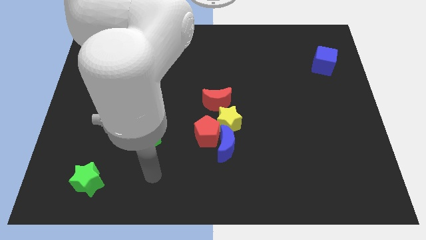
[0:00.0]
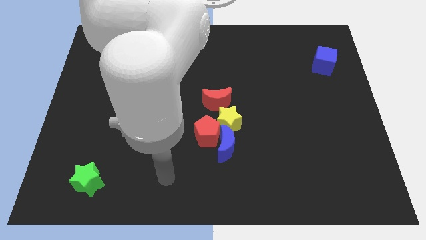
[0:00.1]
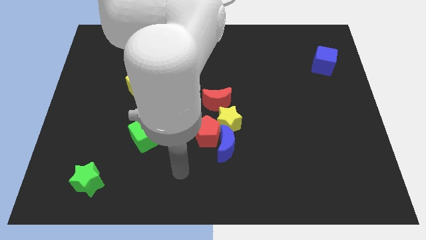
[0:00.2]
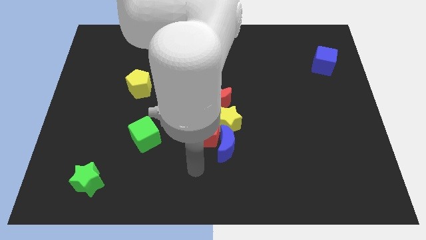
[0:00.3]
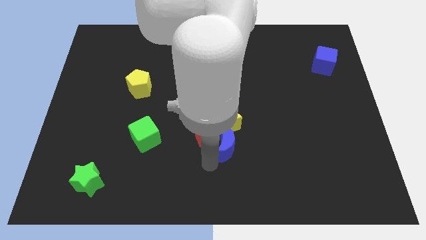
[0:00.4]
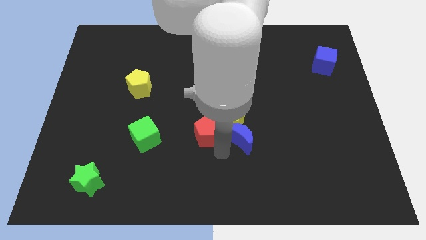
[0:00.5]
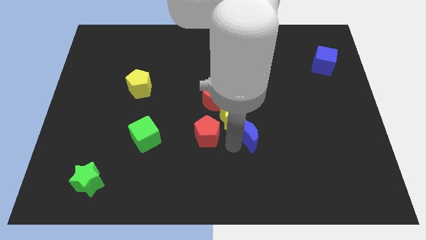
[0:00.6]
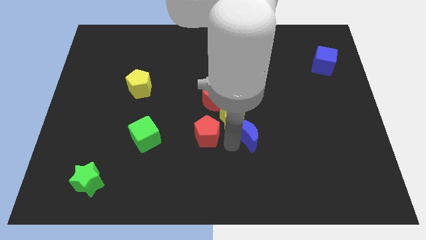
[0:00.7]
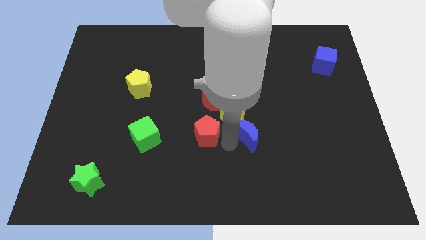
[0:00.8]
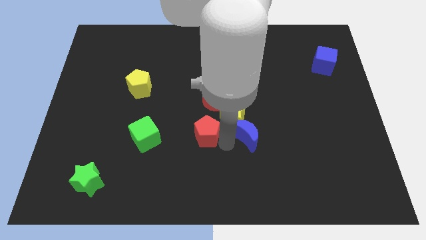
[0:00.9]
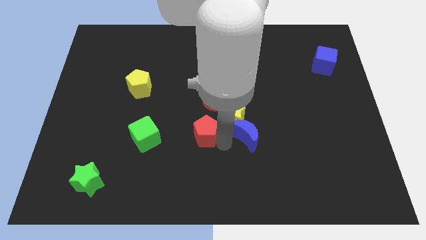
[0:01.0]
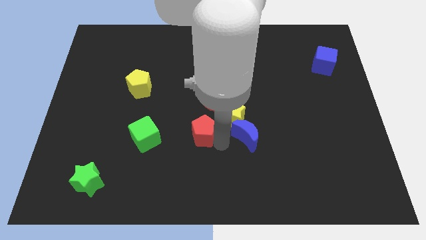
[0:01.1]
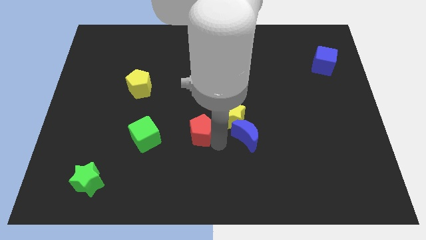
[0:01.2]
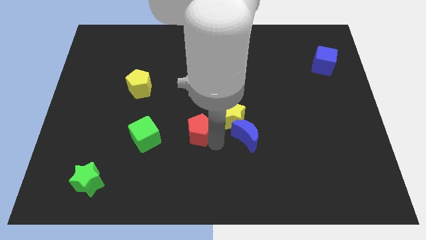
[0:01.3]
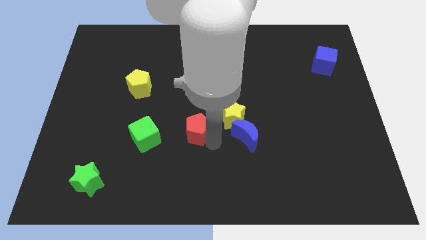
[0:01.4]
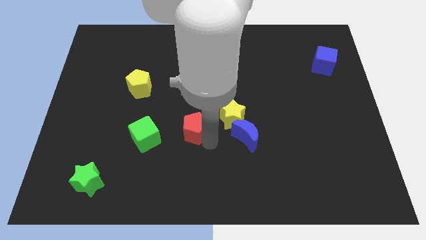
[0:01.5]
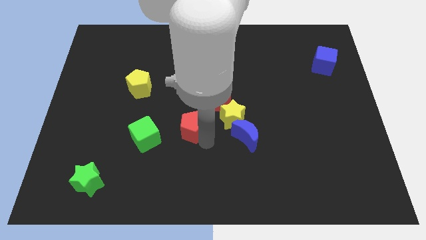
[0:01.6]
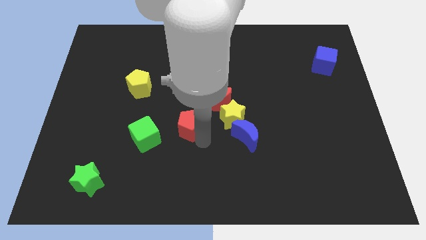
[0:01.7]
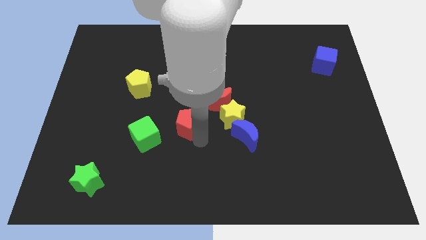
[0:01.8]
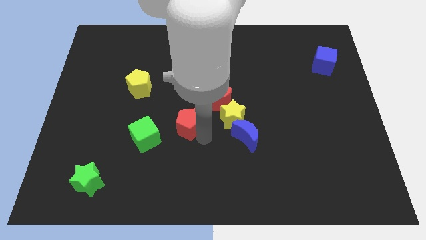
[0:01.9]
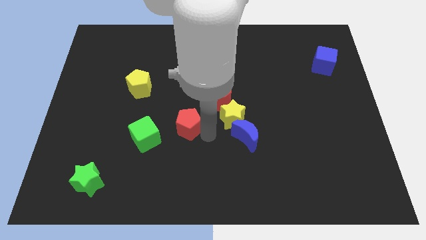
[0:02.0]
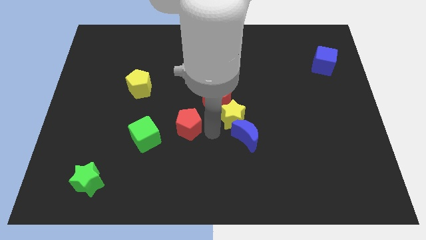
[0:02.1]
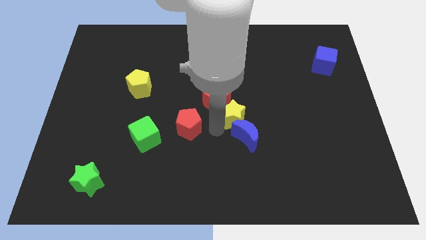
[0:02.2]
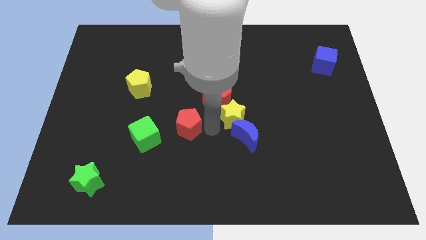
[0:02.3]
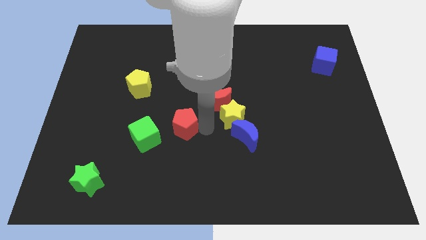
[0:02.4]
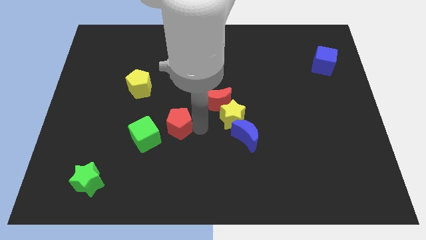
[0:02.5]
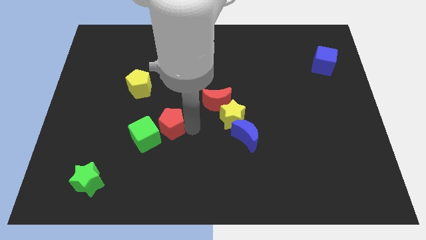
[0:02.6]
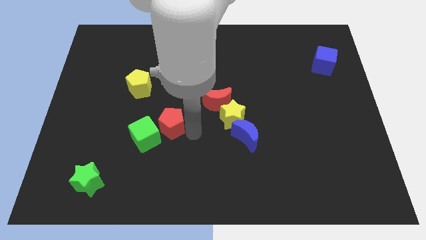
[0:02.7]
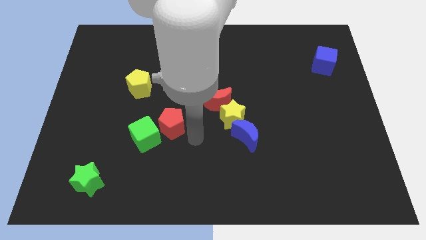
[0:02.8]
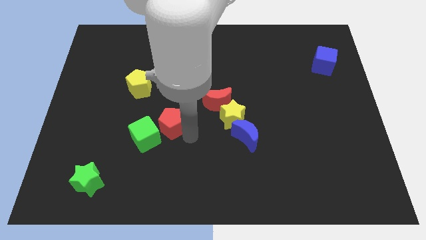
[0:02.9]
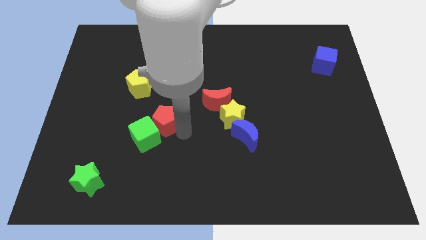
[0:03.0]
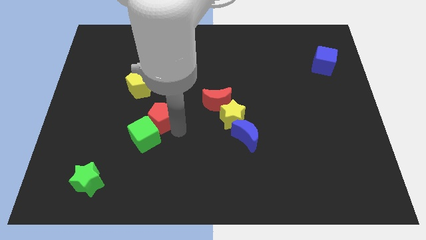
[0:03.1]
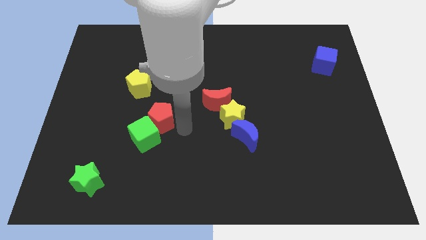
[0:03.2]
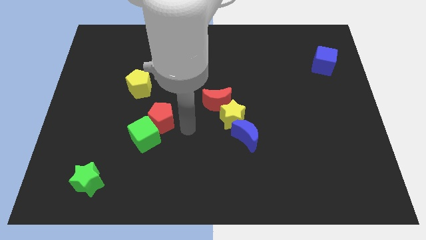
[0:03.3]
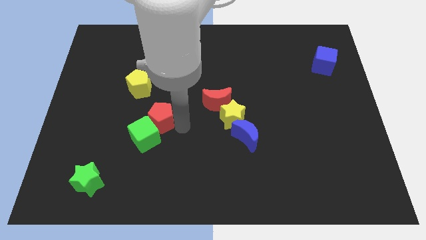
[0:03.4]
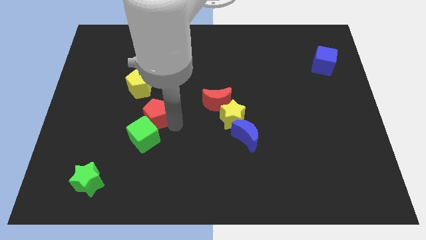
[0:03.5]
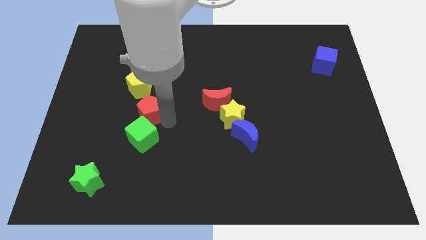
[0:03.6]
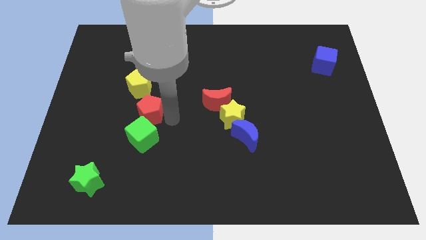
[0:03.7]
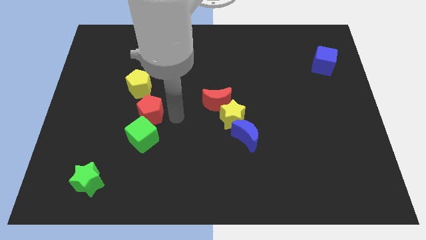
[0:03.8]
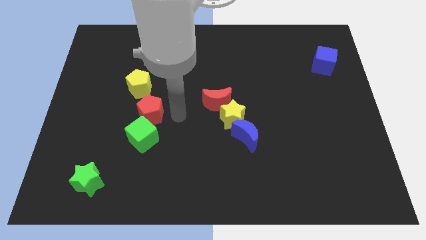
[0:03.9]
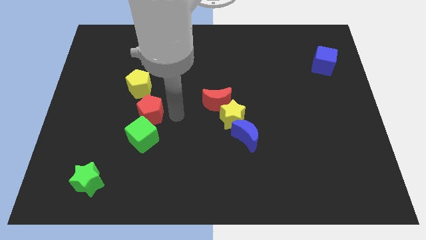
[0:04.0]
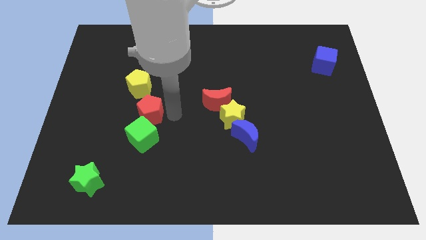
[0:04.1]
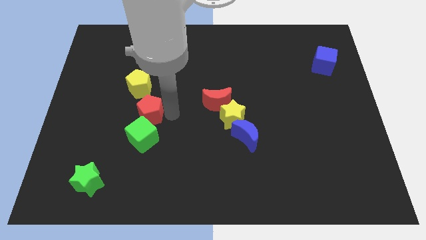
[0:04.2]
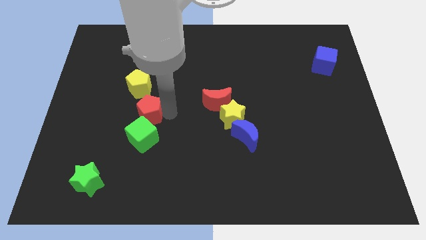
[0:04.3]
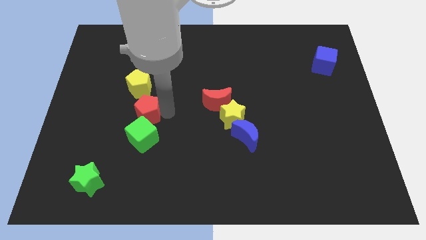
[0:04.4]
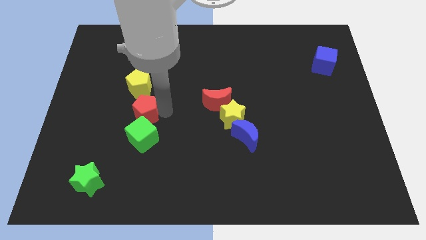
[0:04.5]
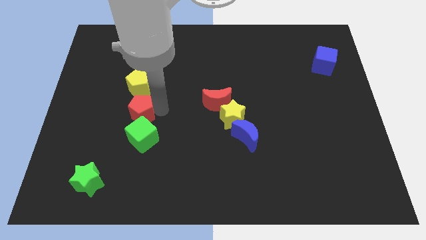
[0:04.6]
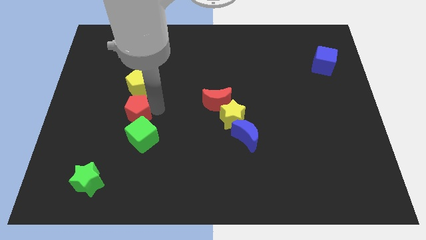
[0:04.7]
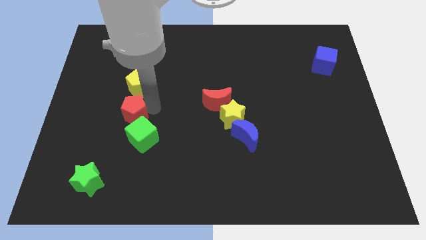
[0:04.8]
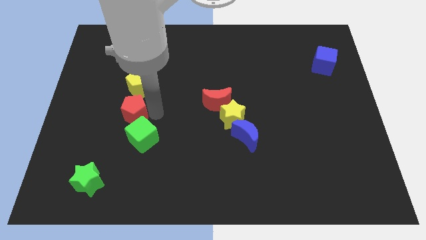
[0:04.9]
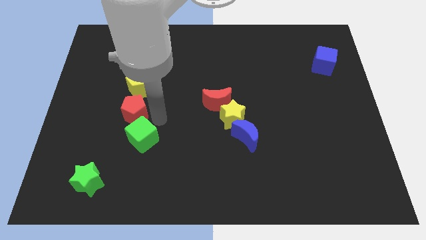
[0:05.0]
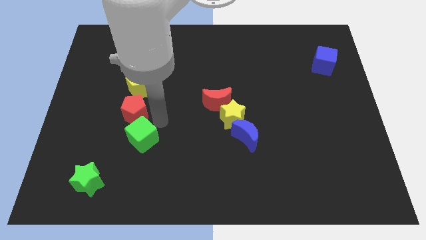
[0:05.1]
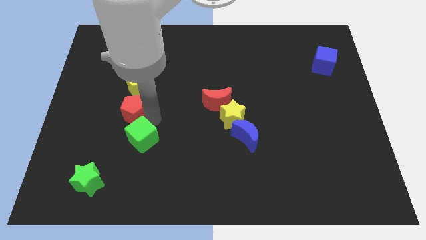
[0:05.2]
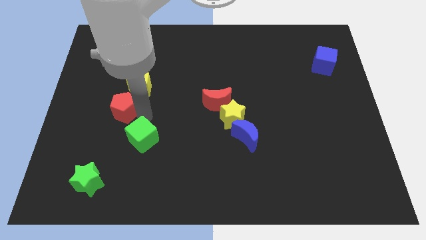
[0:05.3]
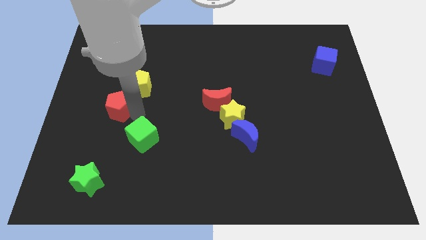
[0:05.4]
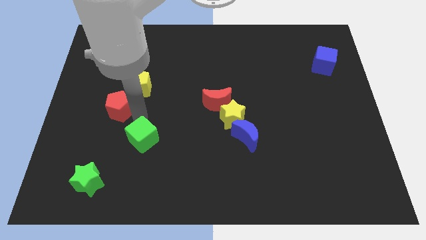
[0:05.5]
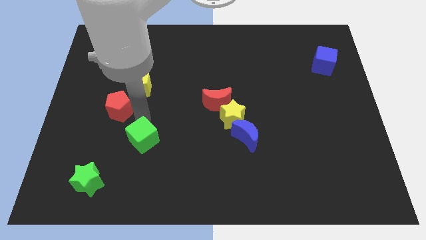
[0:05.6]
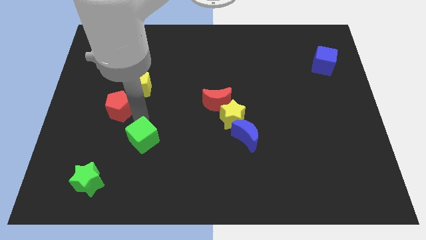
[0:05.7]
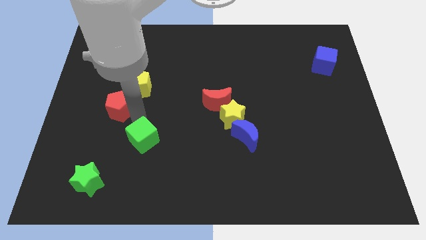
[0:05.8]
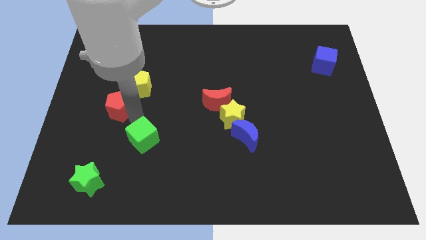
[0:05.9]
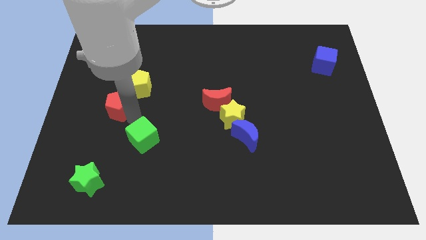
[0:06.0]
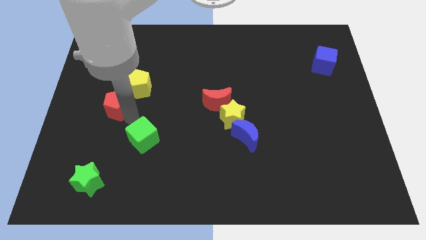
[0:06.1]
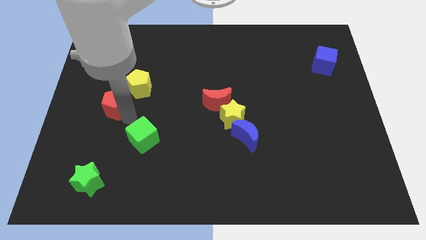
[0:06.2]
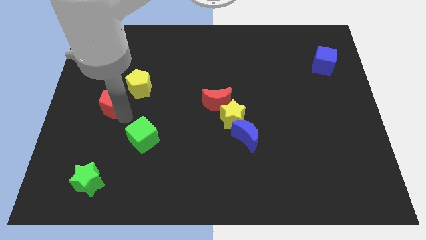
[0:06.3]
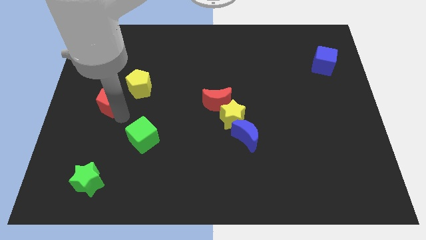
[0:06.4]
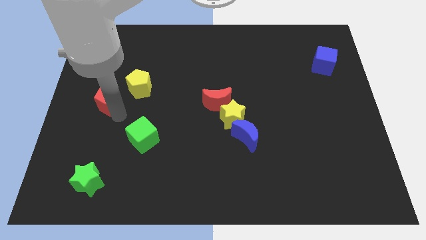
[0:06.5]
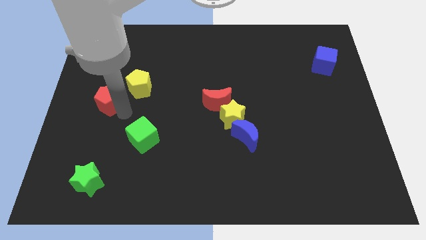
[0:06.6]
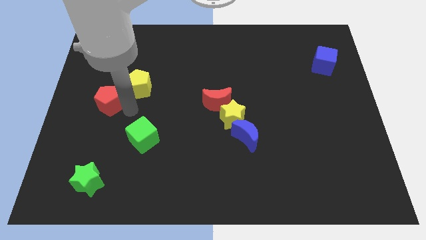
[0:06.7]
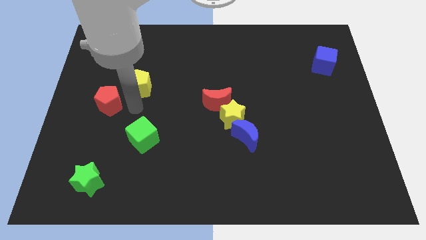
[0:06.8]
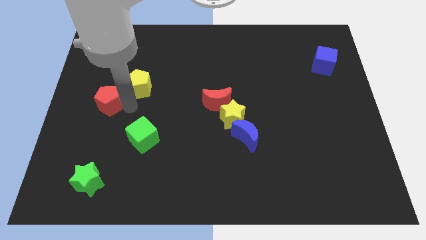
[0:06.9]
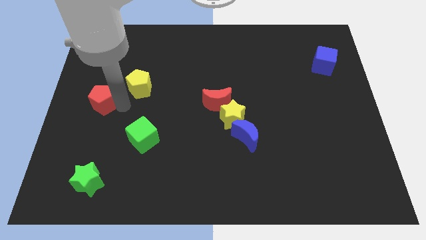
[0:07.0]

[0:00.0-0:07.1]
slide the red pentagon to the left side of the board

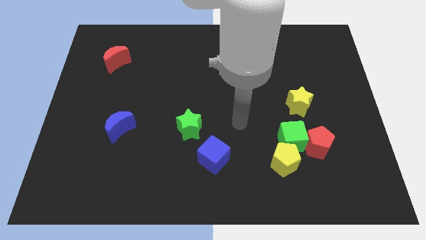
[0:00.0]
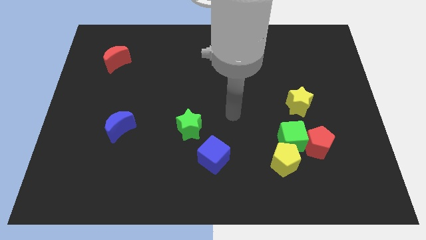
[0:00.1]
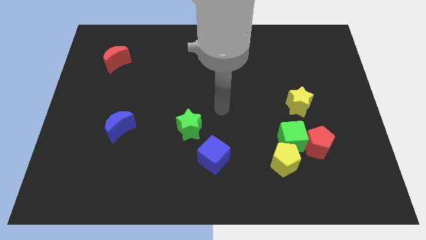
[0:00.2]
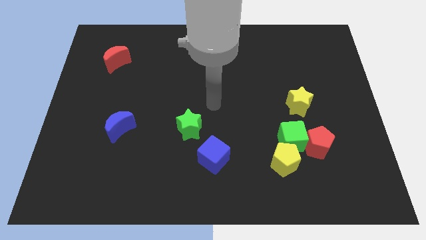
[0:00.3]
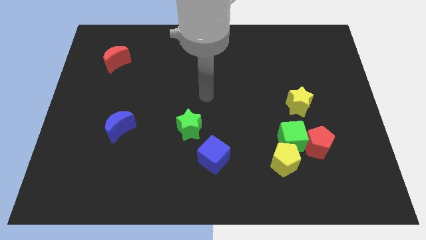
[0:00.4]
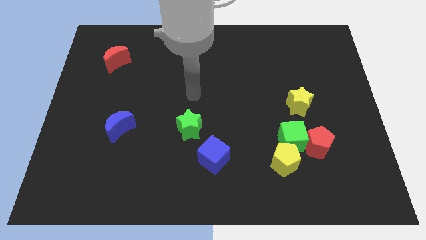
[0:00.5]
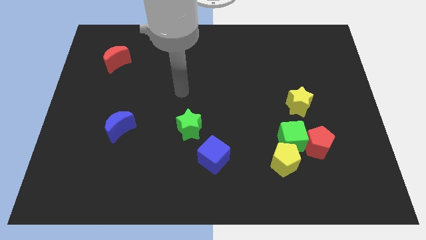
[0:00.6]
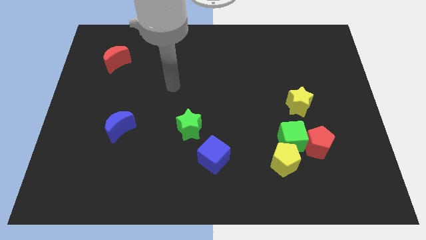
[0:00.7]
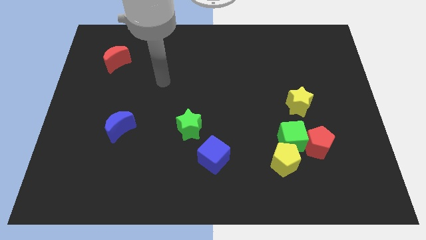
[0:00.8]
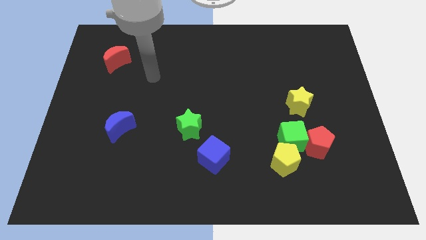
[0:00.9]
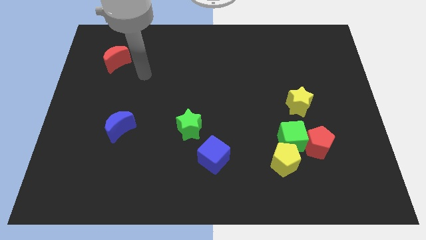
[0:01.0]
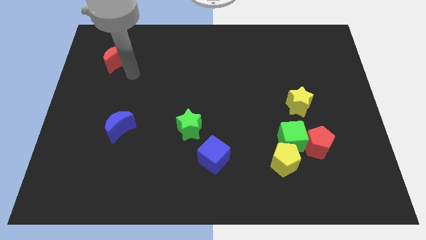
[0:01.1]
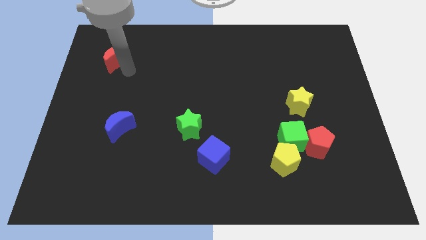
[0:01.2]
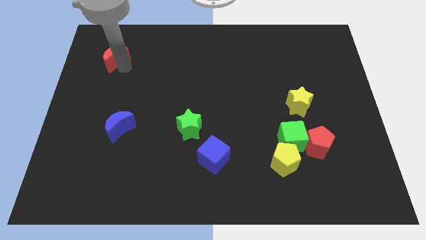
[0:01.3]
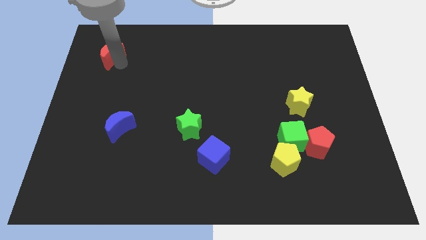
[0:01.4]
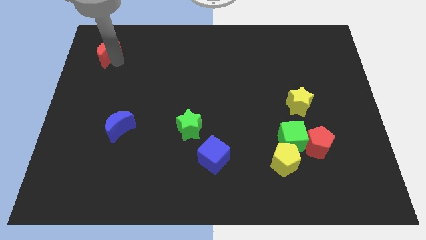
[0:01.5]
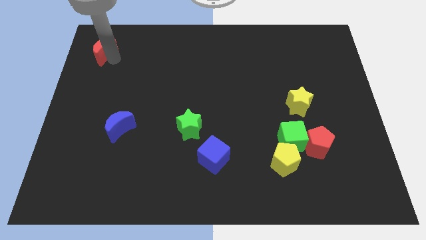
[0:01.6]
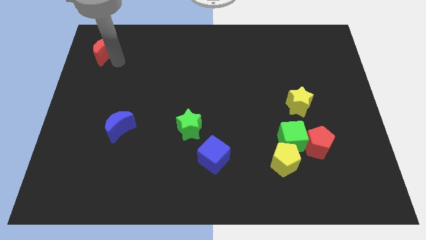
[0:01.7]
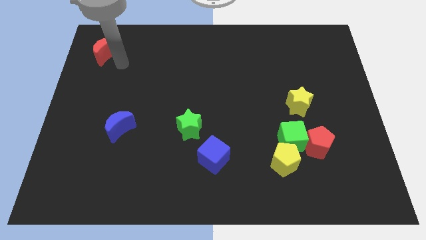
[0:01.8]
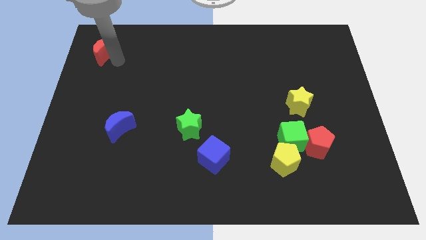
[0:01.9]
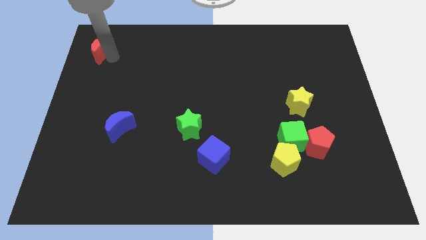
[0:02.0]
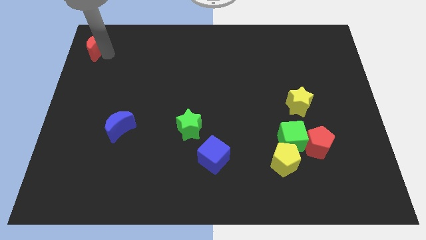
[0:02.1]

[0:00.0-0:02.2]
move the red moon to the upper left corner
